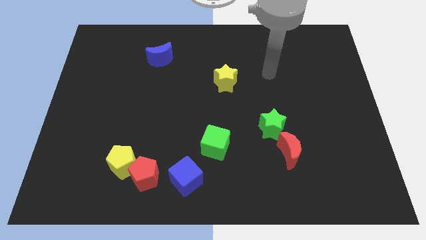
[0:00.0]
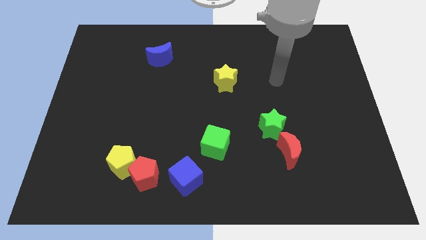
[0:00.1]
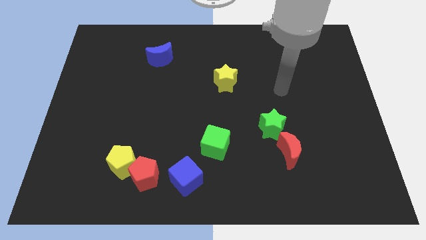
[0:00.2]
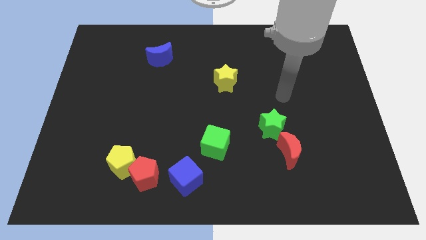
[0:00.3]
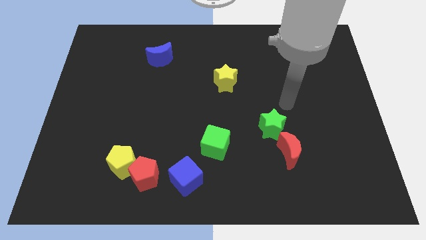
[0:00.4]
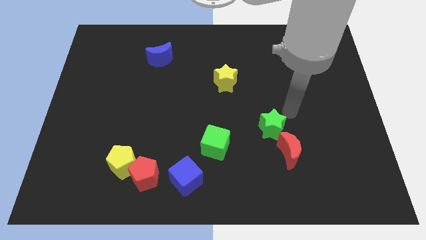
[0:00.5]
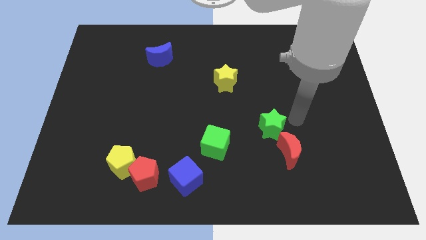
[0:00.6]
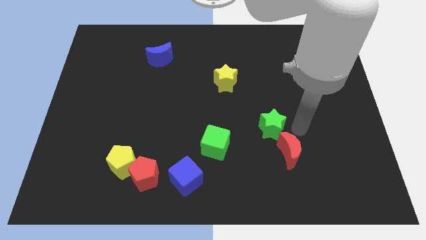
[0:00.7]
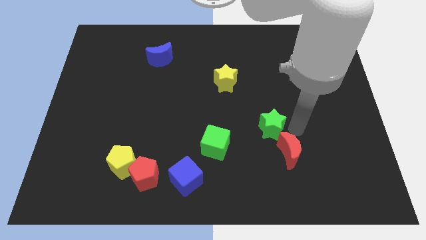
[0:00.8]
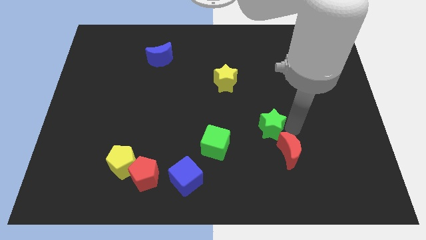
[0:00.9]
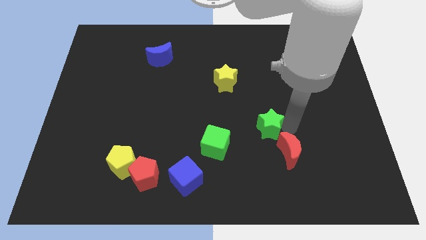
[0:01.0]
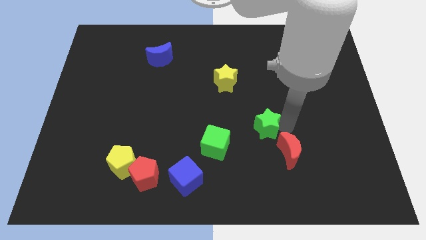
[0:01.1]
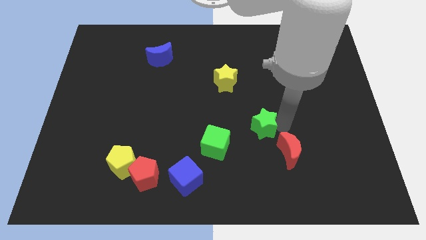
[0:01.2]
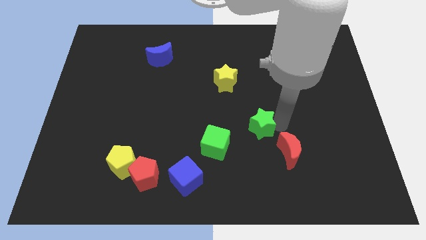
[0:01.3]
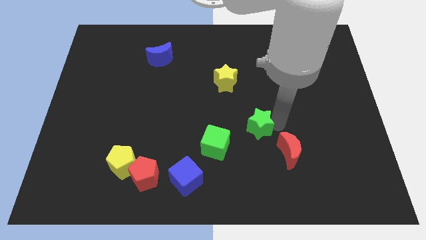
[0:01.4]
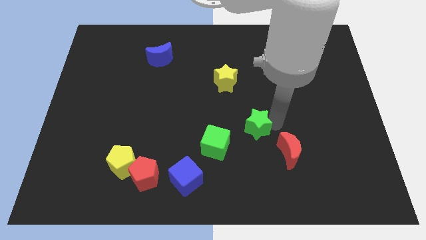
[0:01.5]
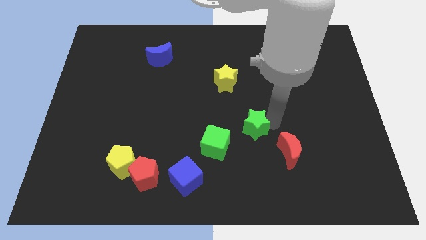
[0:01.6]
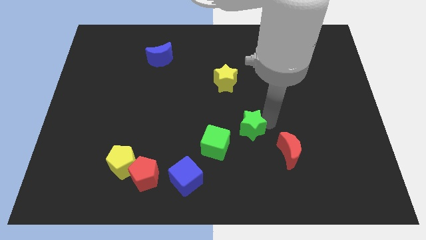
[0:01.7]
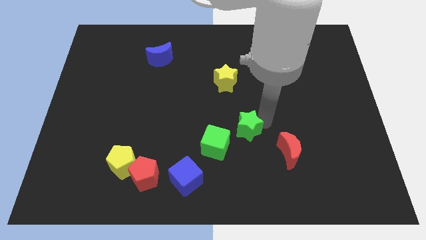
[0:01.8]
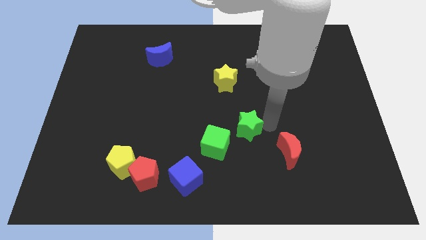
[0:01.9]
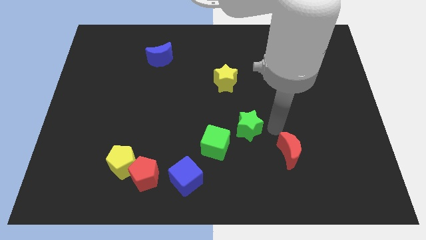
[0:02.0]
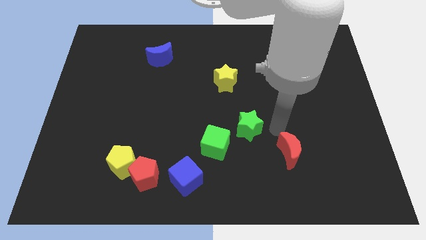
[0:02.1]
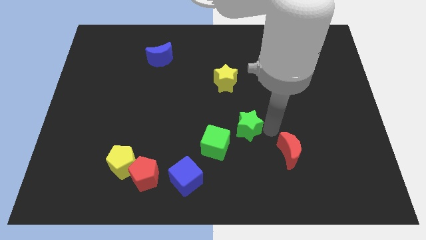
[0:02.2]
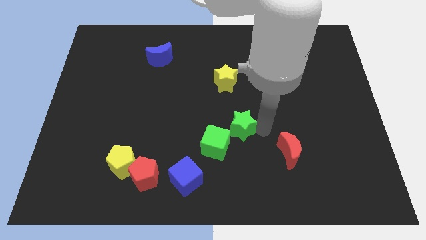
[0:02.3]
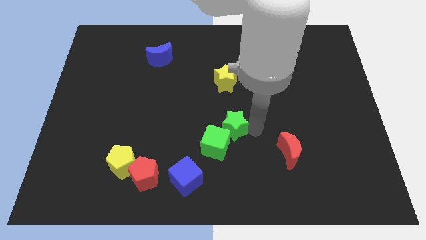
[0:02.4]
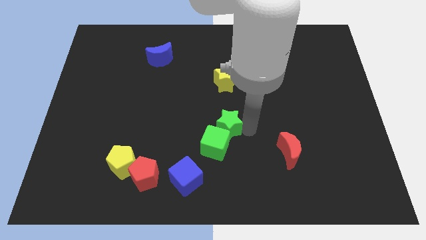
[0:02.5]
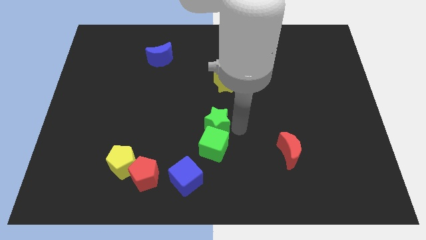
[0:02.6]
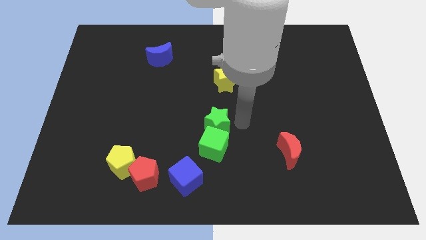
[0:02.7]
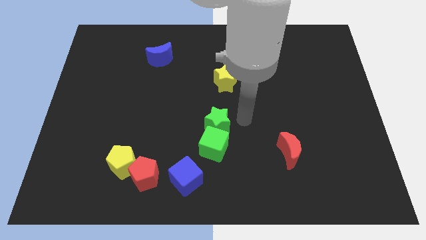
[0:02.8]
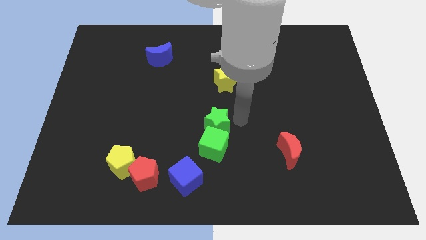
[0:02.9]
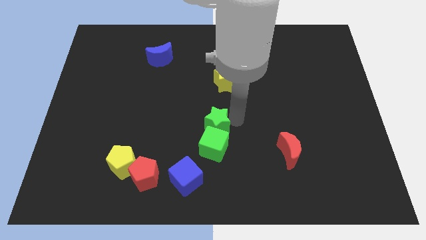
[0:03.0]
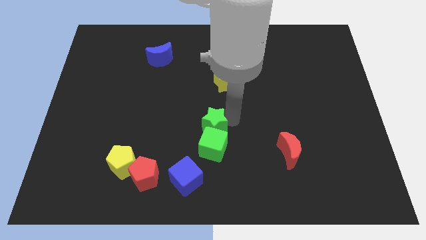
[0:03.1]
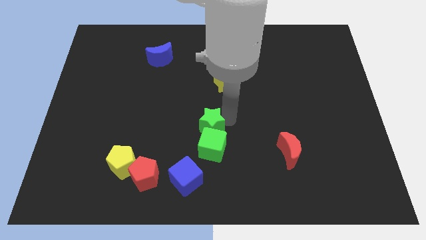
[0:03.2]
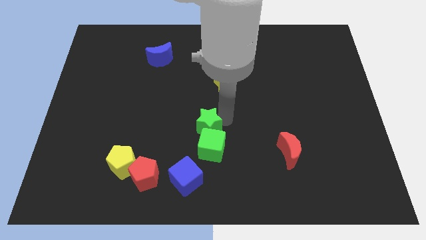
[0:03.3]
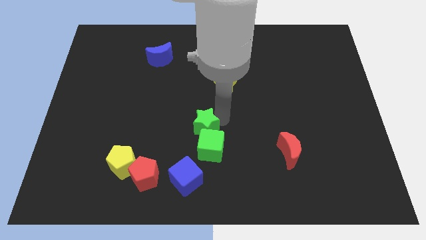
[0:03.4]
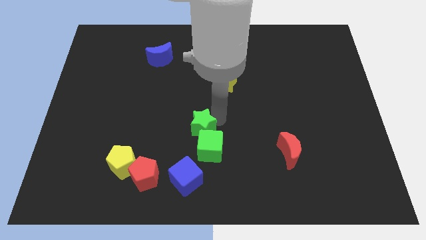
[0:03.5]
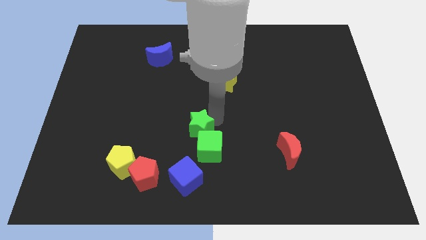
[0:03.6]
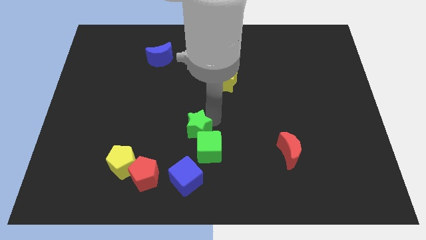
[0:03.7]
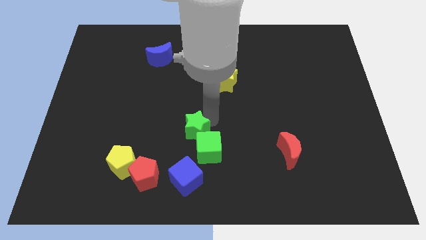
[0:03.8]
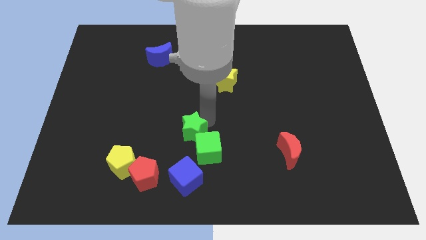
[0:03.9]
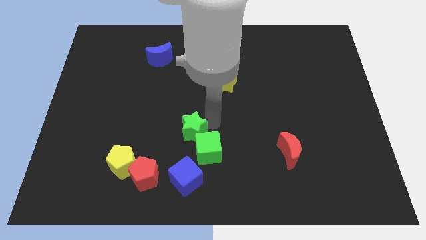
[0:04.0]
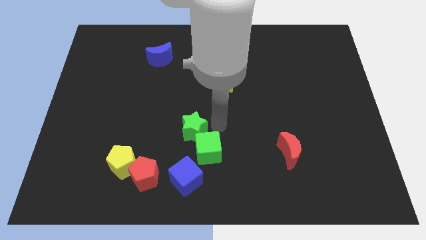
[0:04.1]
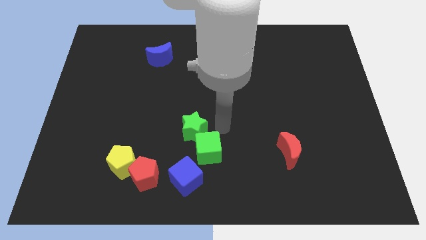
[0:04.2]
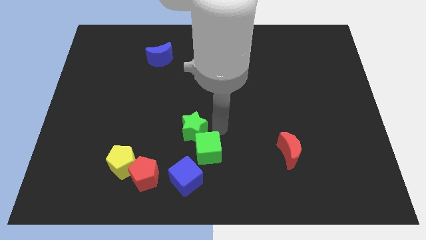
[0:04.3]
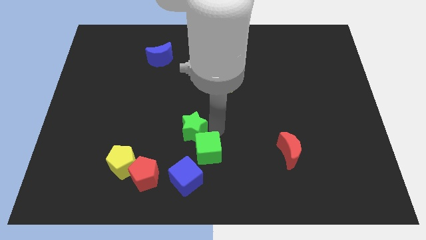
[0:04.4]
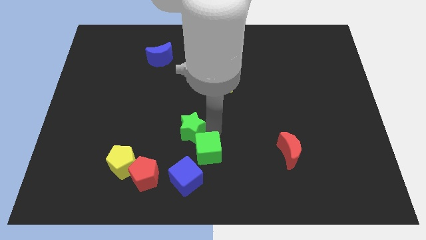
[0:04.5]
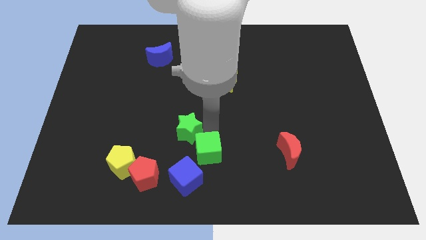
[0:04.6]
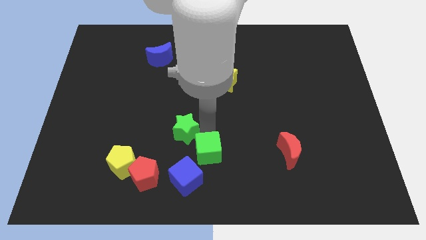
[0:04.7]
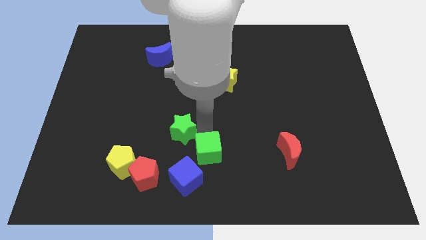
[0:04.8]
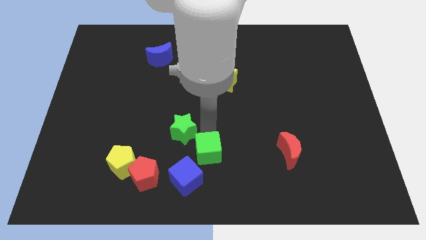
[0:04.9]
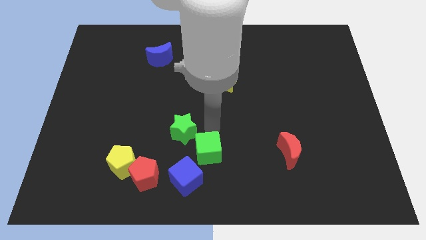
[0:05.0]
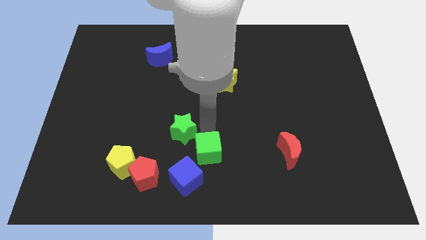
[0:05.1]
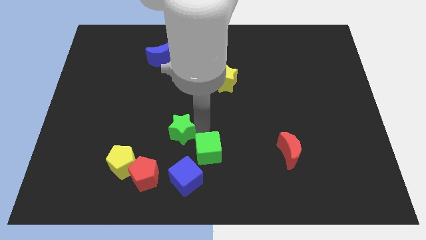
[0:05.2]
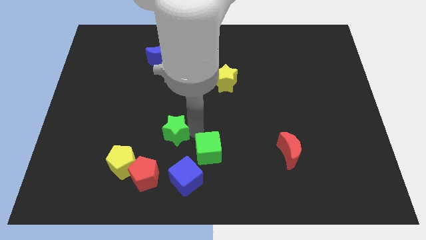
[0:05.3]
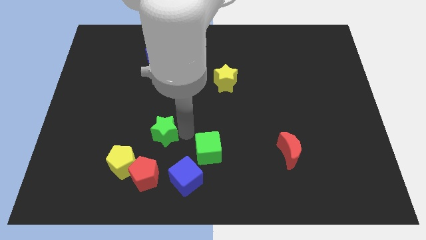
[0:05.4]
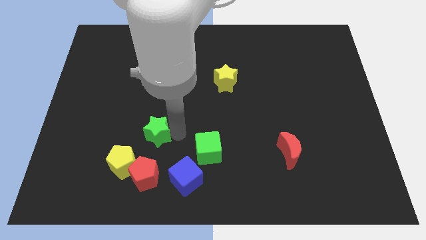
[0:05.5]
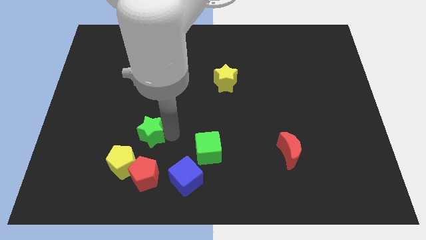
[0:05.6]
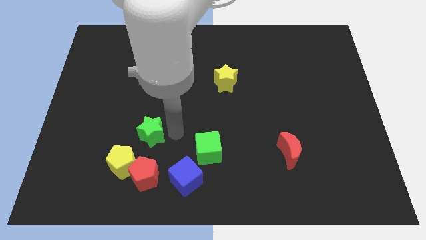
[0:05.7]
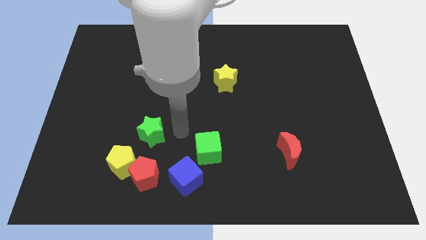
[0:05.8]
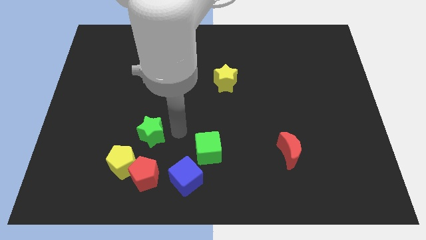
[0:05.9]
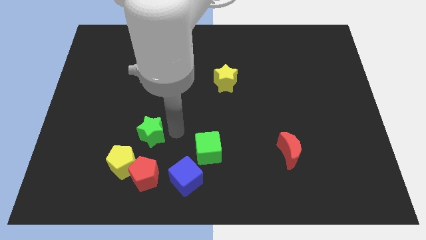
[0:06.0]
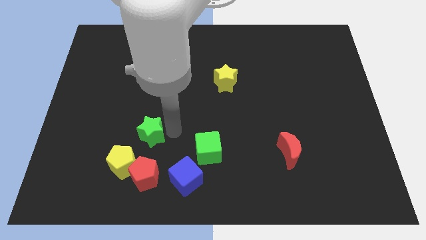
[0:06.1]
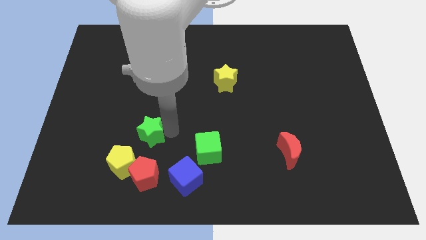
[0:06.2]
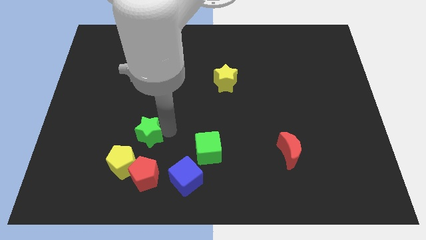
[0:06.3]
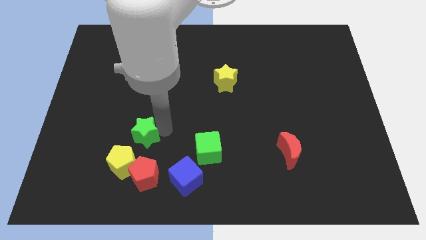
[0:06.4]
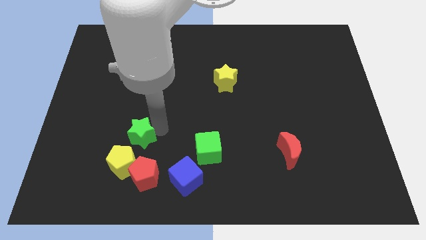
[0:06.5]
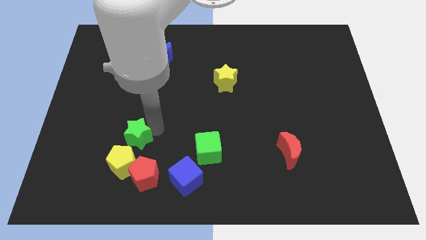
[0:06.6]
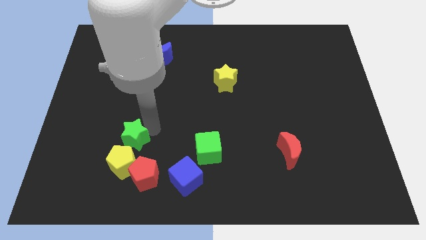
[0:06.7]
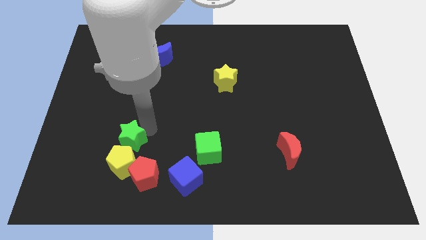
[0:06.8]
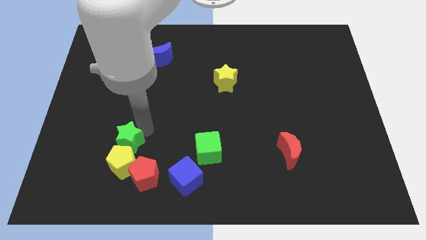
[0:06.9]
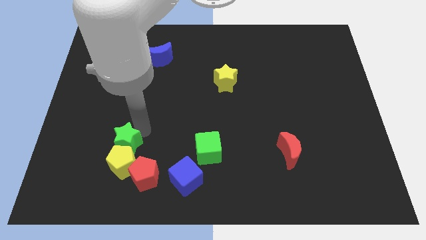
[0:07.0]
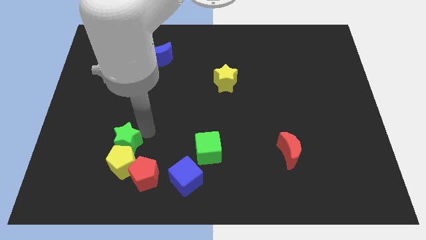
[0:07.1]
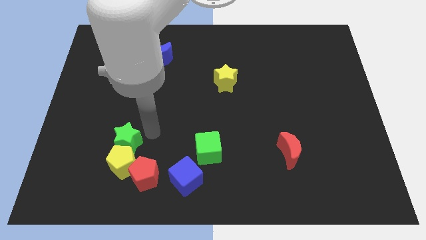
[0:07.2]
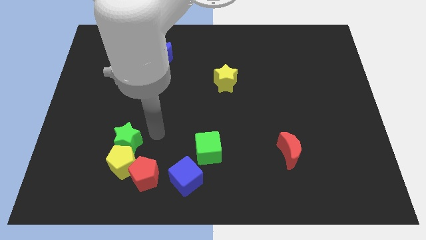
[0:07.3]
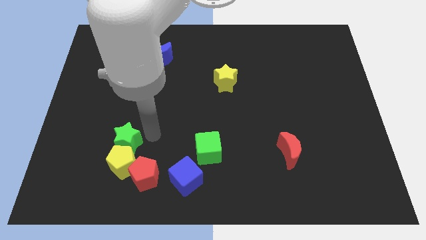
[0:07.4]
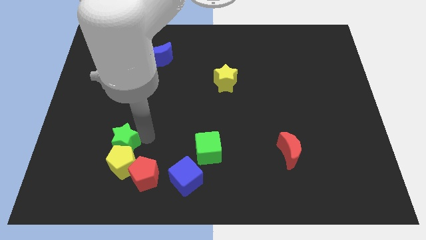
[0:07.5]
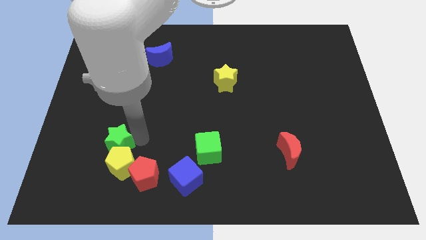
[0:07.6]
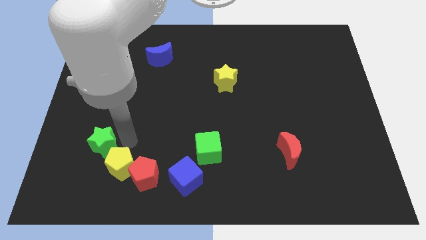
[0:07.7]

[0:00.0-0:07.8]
slide the green star to the left of the yellow pentagon
